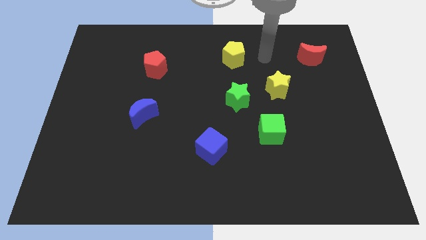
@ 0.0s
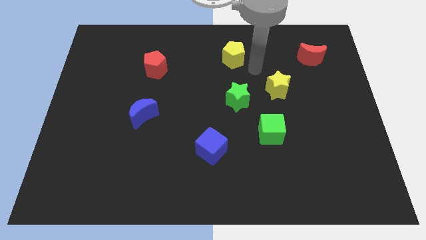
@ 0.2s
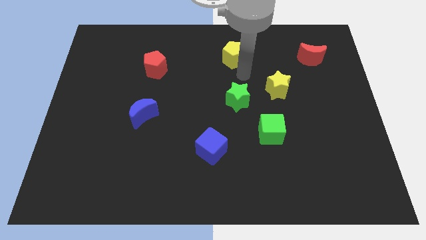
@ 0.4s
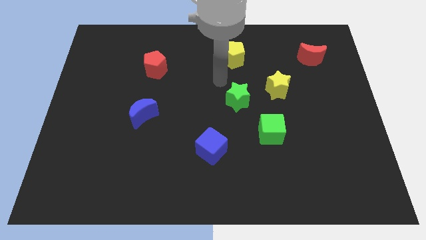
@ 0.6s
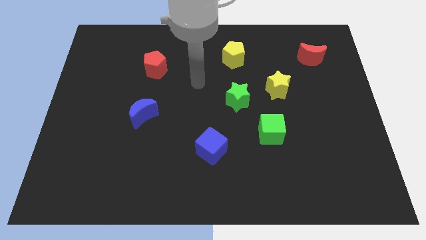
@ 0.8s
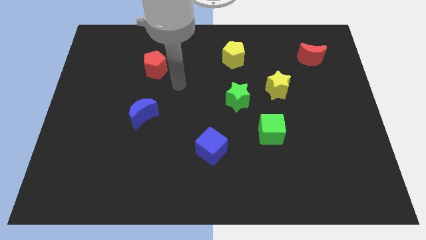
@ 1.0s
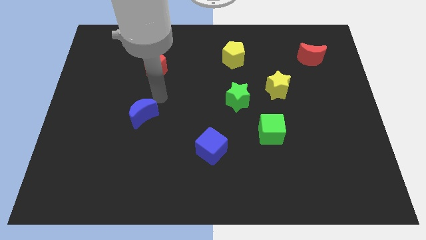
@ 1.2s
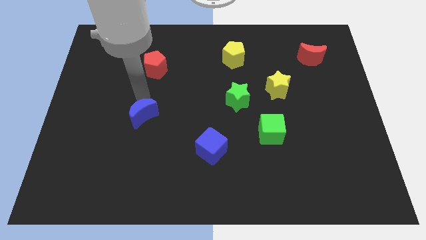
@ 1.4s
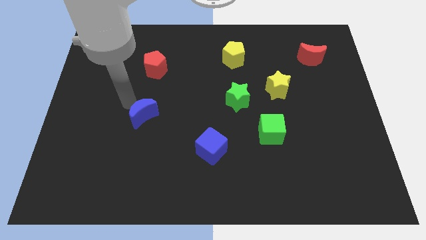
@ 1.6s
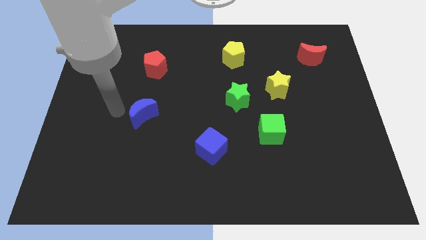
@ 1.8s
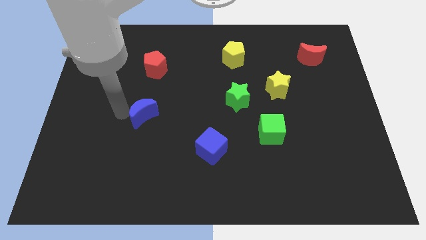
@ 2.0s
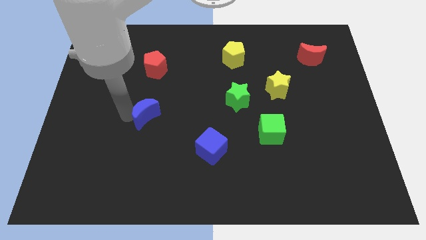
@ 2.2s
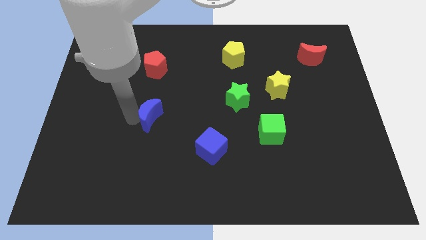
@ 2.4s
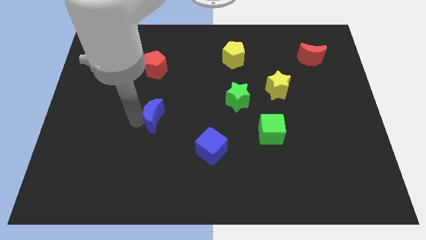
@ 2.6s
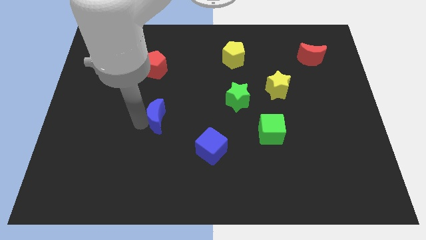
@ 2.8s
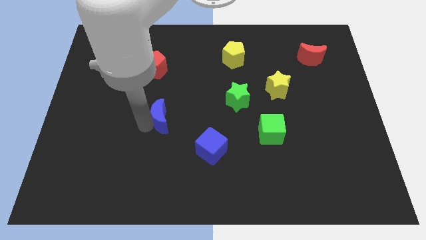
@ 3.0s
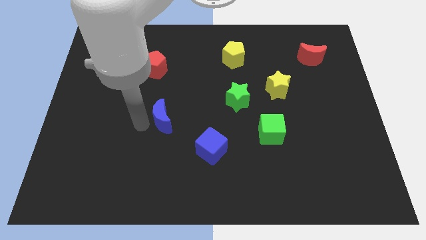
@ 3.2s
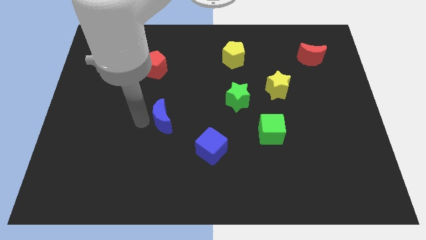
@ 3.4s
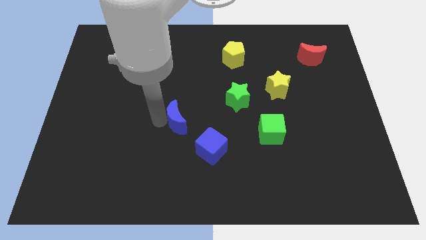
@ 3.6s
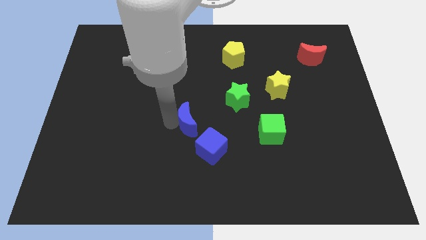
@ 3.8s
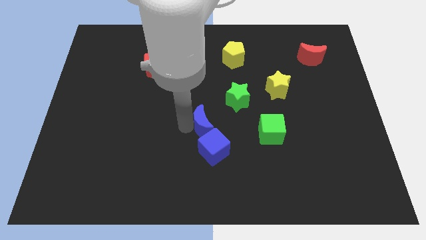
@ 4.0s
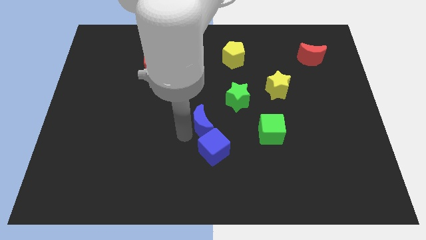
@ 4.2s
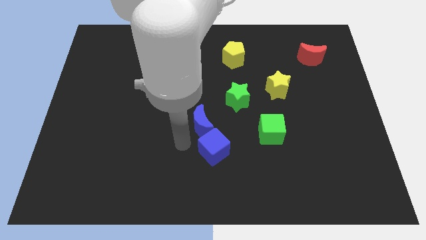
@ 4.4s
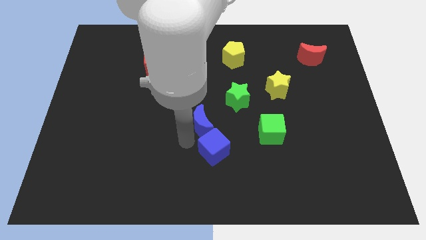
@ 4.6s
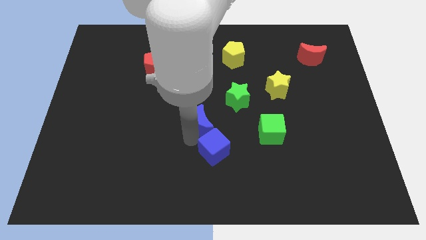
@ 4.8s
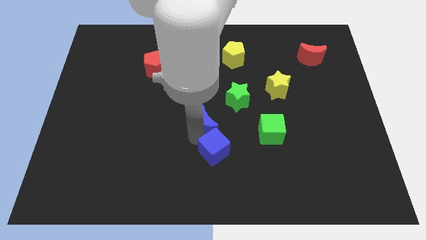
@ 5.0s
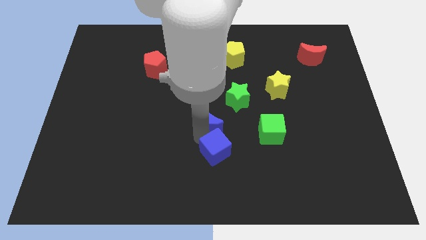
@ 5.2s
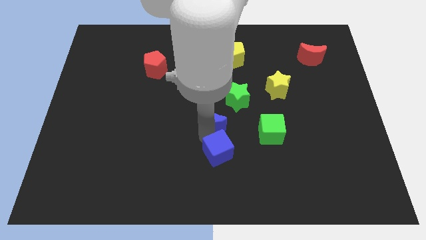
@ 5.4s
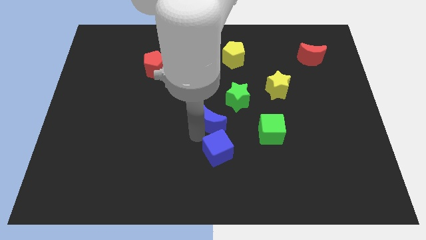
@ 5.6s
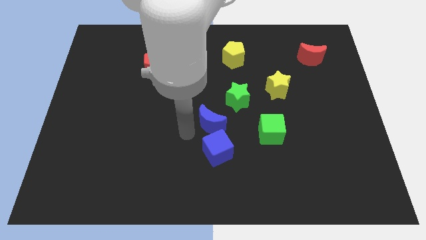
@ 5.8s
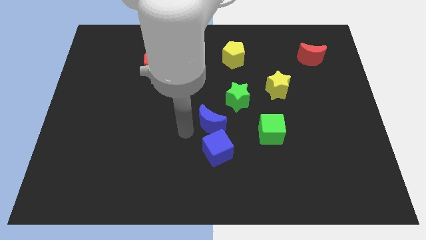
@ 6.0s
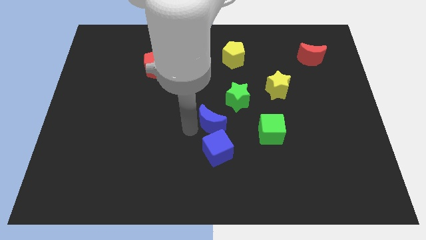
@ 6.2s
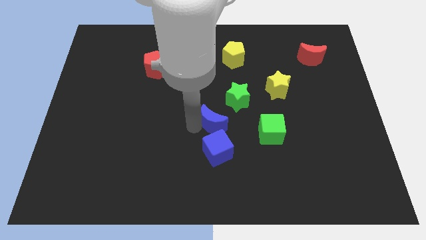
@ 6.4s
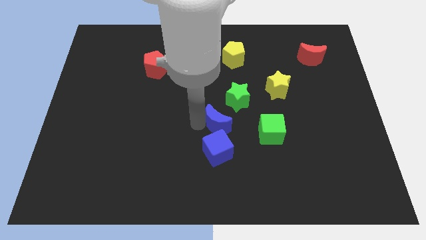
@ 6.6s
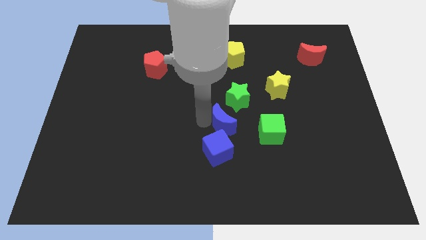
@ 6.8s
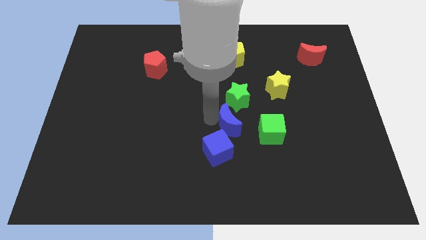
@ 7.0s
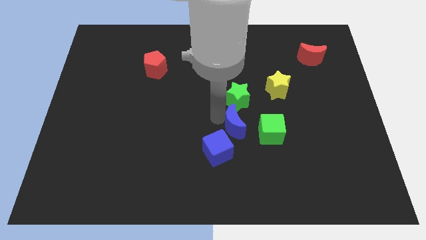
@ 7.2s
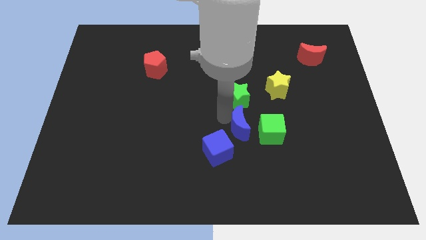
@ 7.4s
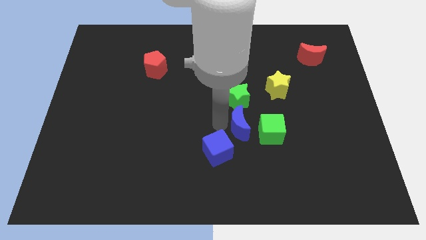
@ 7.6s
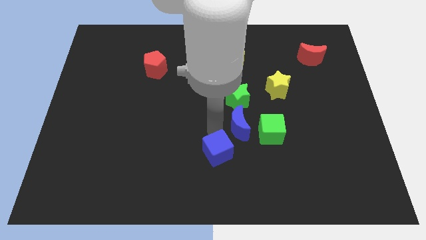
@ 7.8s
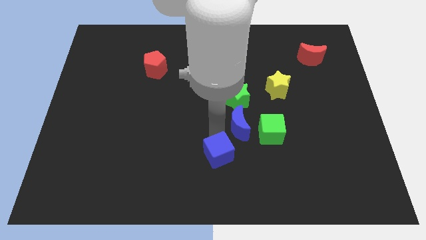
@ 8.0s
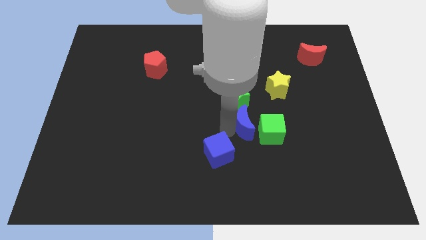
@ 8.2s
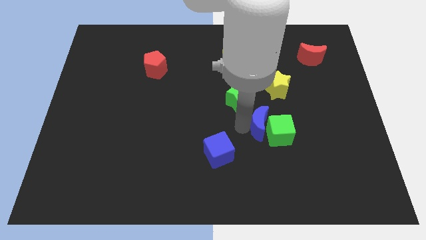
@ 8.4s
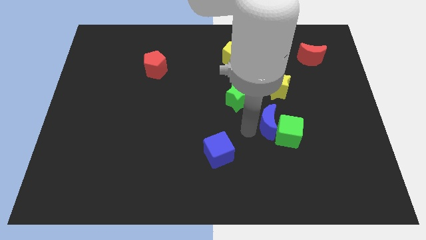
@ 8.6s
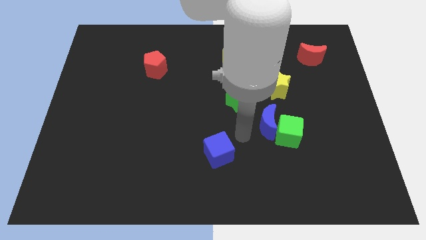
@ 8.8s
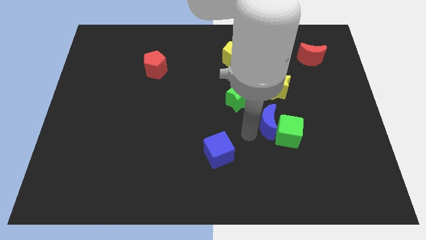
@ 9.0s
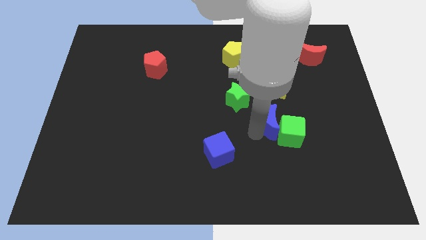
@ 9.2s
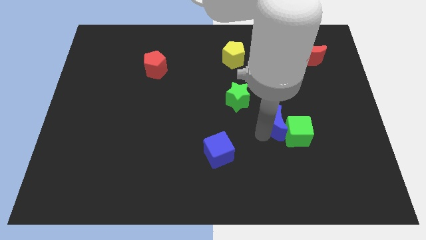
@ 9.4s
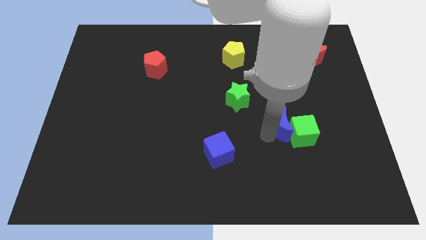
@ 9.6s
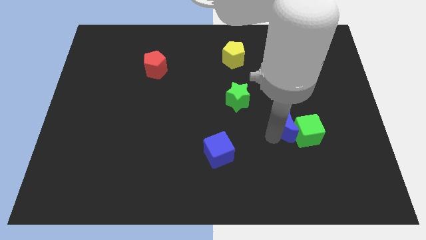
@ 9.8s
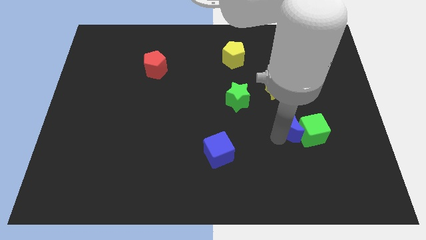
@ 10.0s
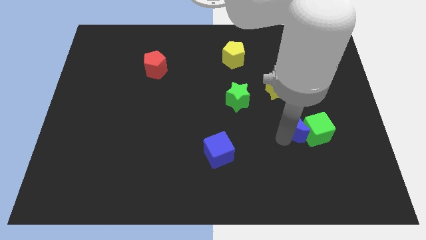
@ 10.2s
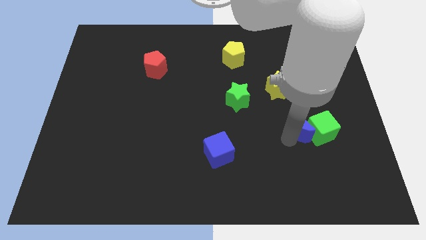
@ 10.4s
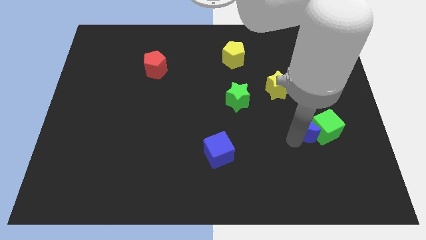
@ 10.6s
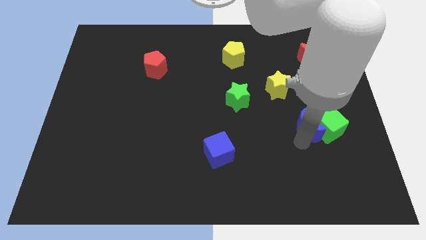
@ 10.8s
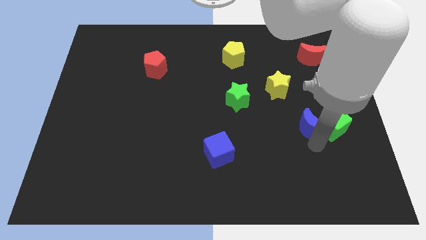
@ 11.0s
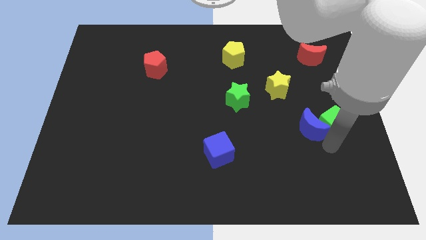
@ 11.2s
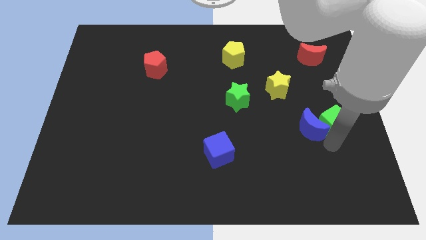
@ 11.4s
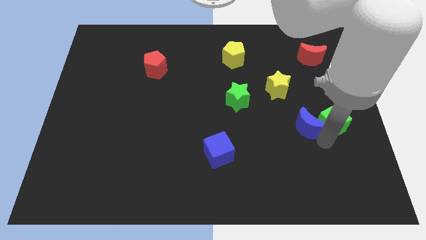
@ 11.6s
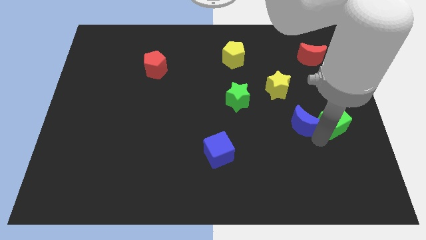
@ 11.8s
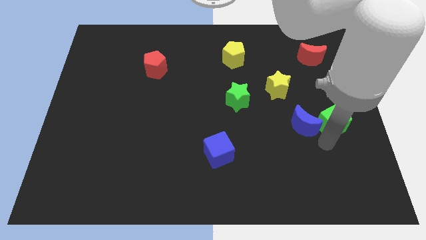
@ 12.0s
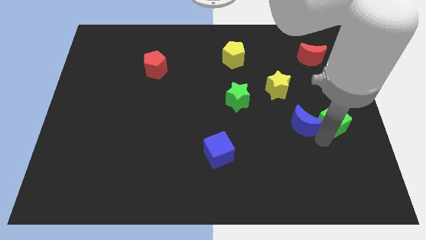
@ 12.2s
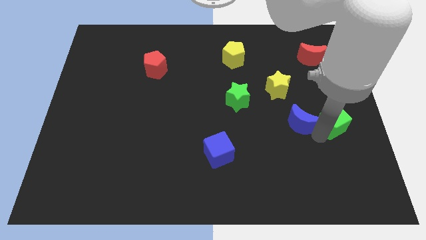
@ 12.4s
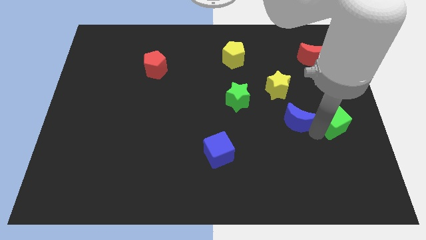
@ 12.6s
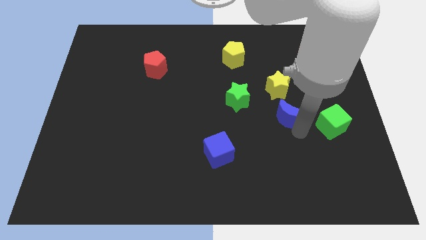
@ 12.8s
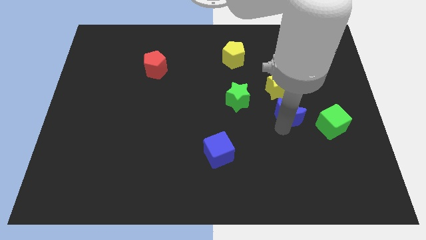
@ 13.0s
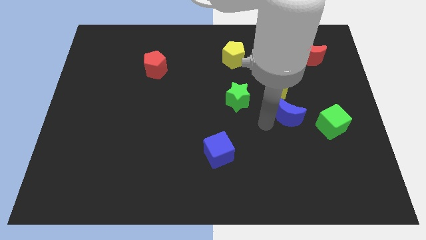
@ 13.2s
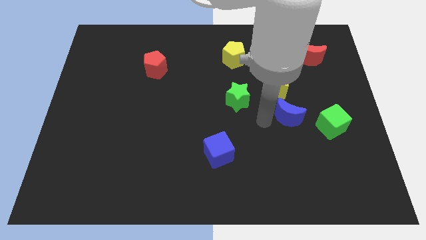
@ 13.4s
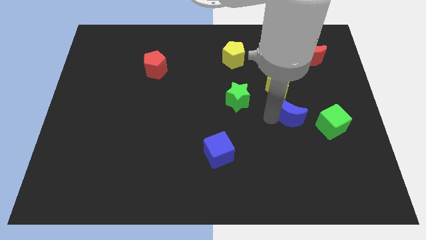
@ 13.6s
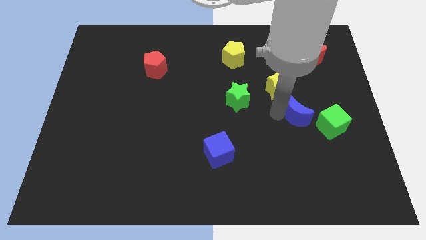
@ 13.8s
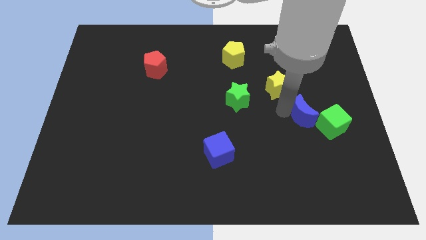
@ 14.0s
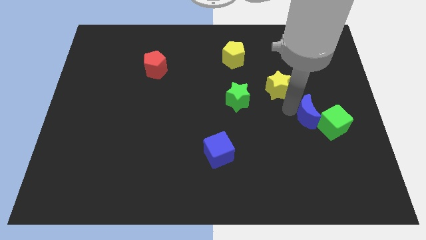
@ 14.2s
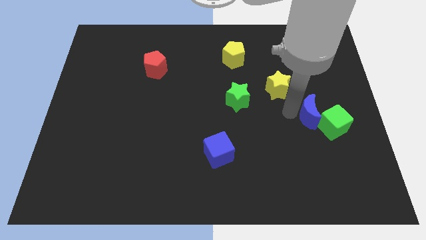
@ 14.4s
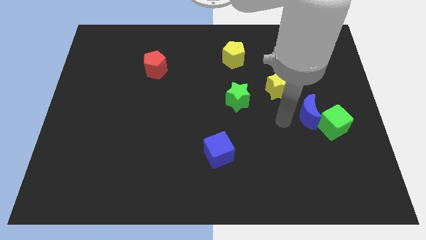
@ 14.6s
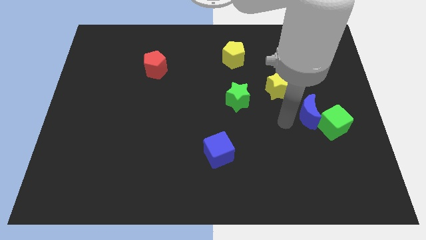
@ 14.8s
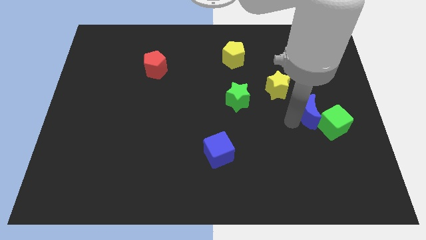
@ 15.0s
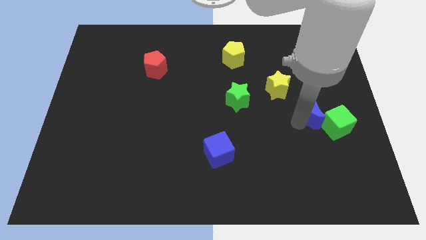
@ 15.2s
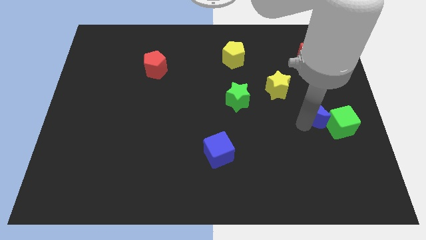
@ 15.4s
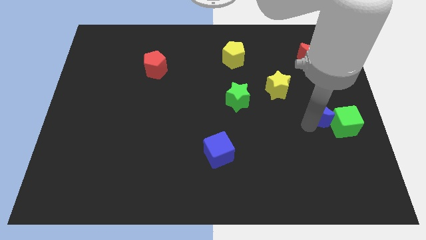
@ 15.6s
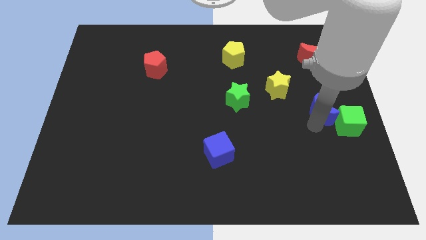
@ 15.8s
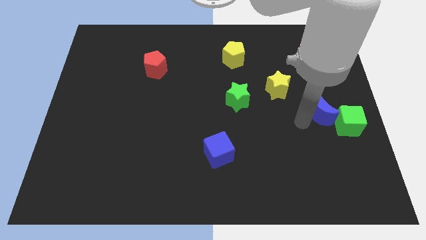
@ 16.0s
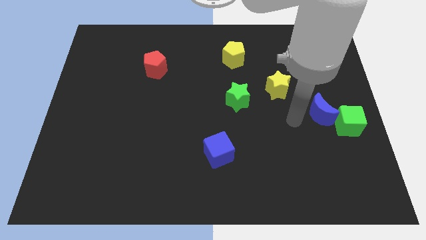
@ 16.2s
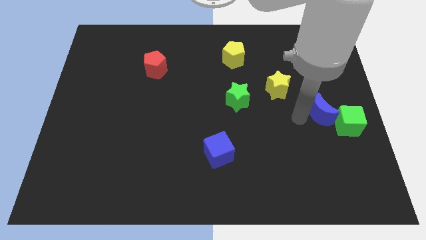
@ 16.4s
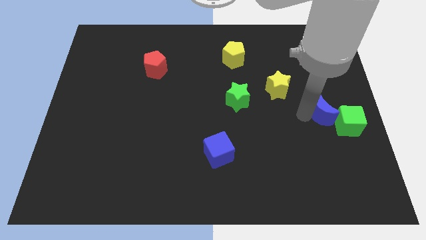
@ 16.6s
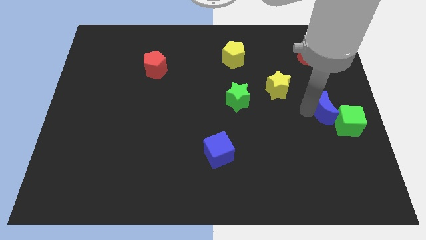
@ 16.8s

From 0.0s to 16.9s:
slide the blue moon to the right side
